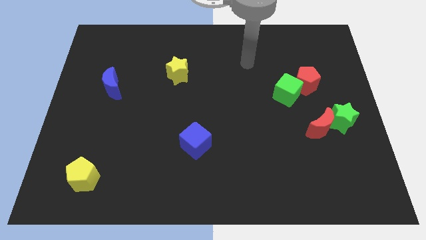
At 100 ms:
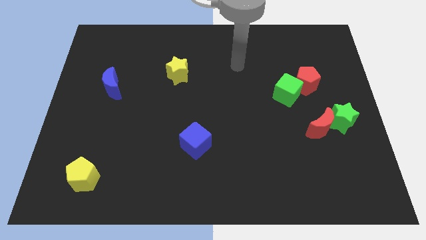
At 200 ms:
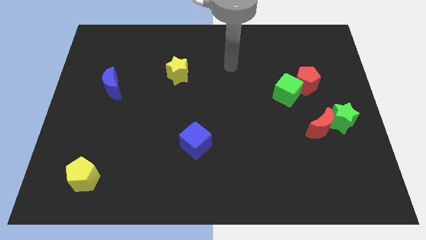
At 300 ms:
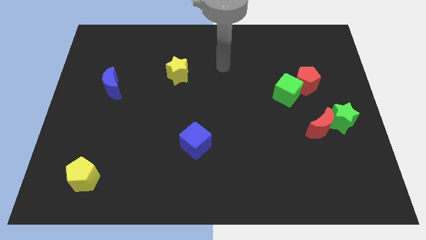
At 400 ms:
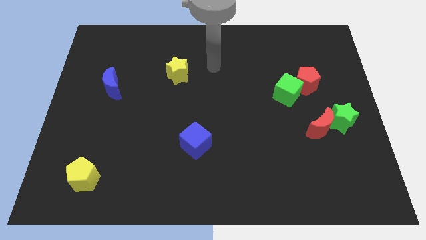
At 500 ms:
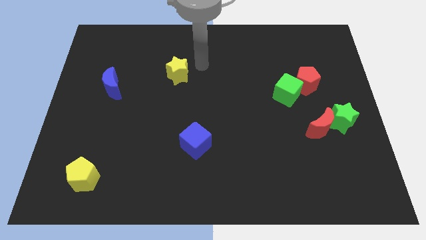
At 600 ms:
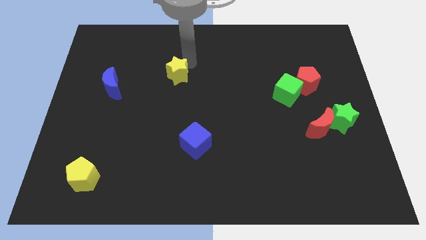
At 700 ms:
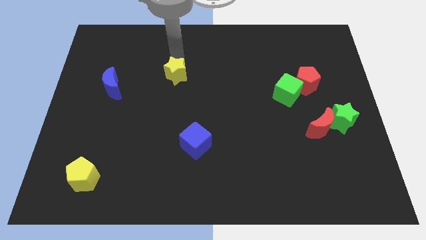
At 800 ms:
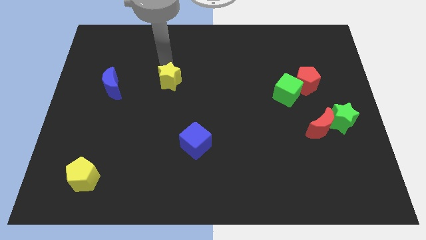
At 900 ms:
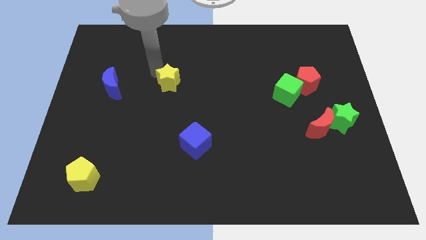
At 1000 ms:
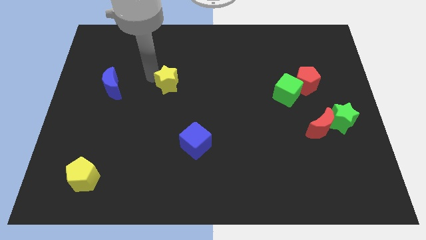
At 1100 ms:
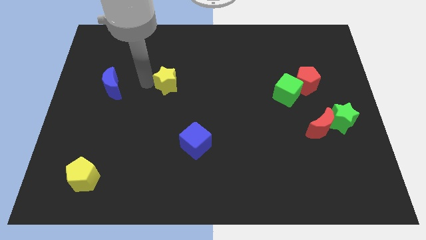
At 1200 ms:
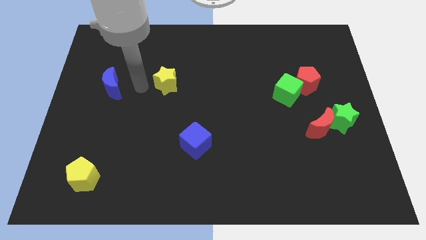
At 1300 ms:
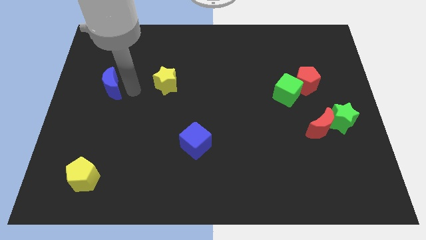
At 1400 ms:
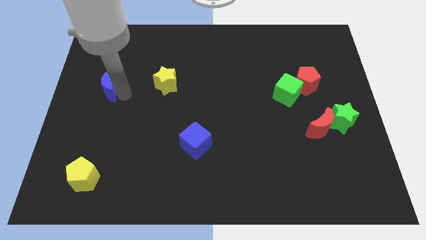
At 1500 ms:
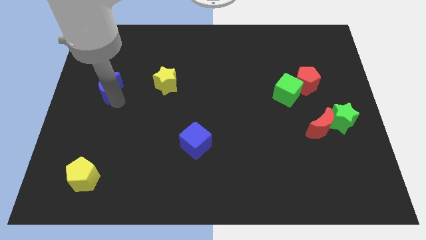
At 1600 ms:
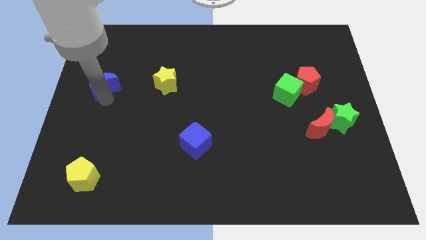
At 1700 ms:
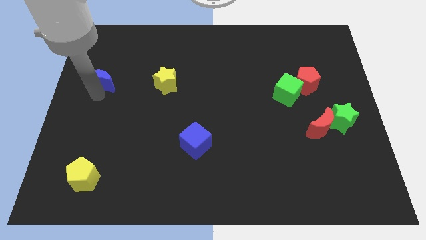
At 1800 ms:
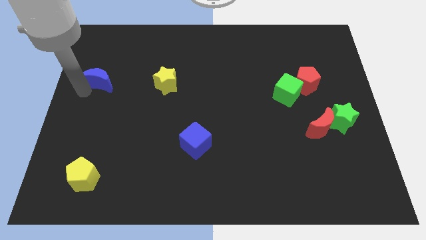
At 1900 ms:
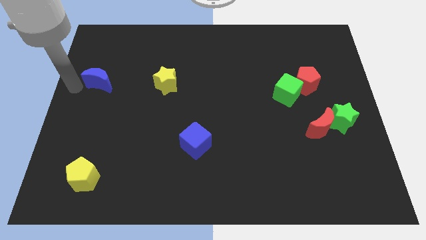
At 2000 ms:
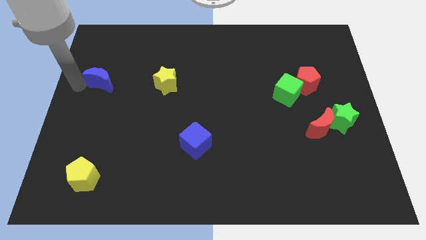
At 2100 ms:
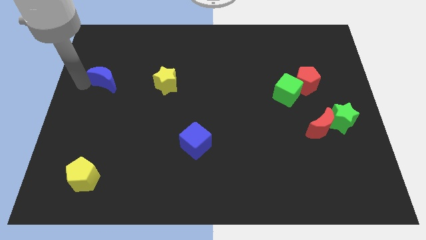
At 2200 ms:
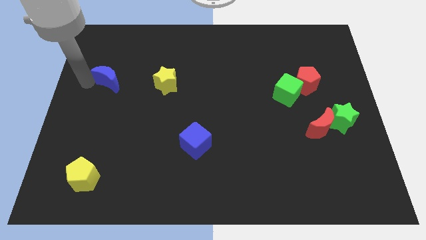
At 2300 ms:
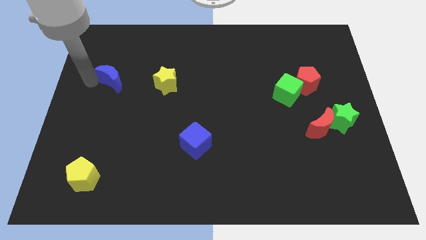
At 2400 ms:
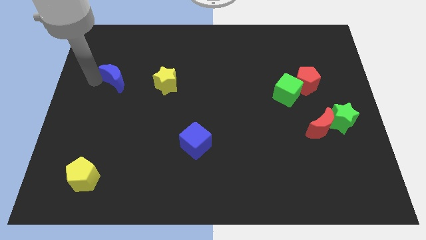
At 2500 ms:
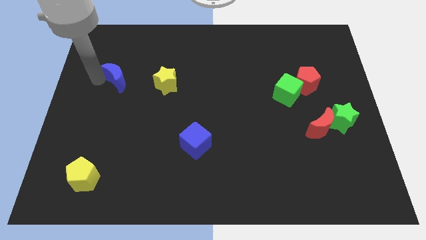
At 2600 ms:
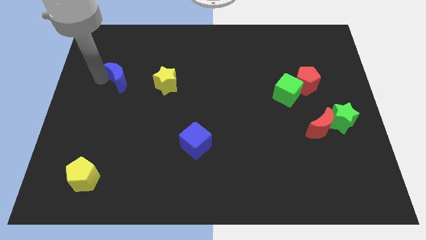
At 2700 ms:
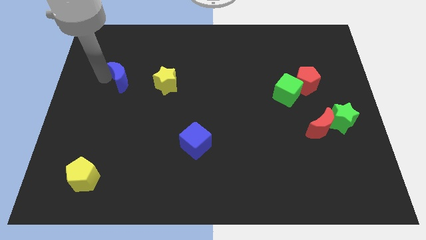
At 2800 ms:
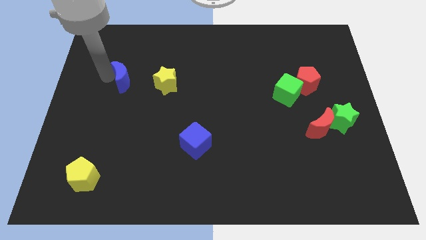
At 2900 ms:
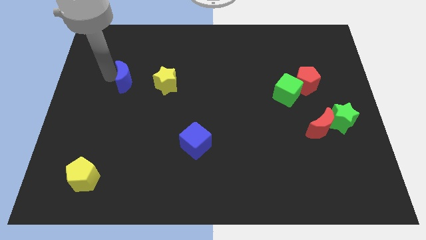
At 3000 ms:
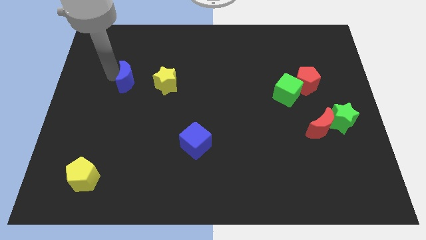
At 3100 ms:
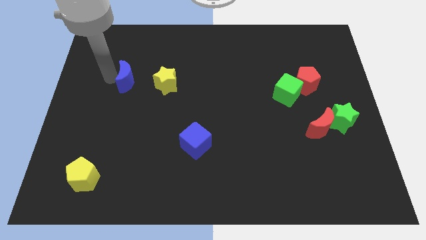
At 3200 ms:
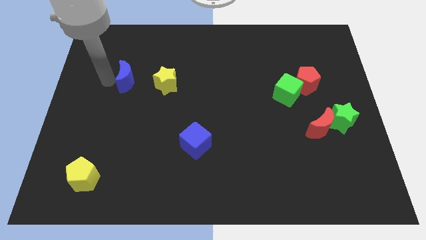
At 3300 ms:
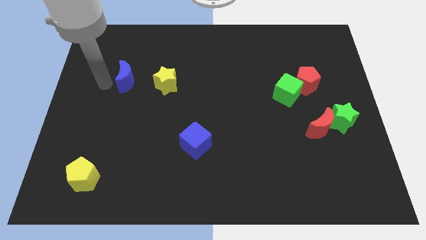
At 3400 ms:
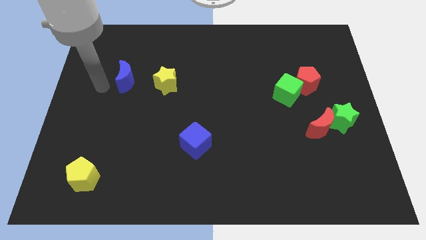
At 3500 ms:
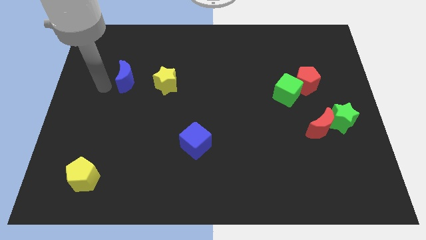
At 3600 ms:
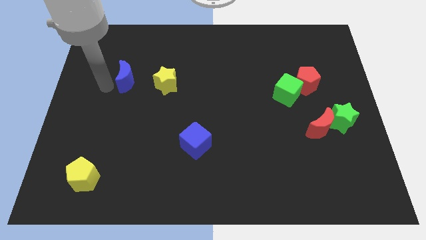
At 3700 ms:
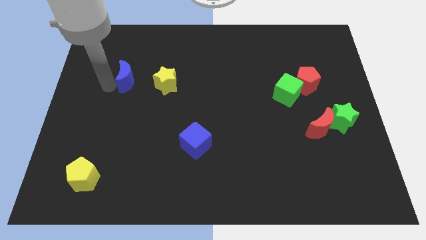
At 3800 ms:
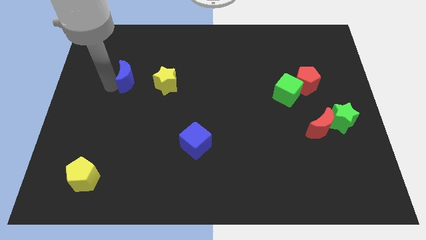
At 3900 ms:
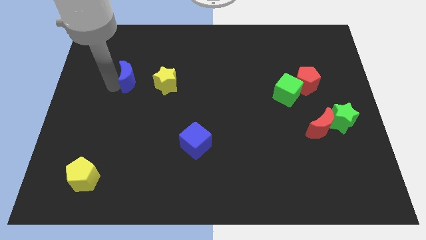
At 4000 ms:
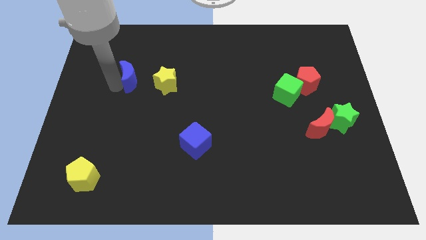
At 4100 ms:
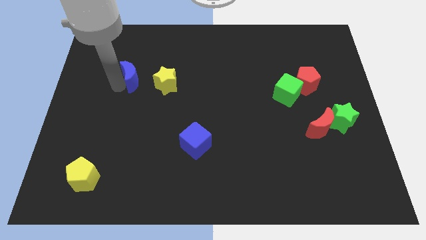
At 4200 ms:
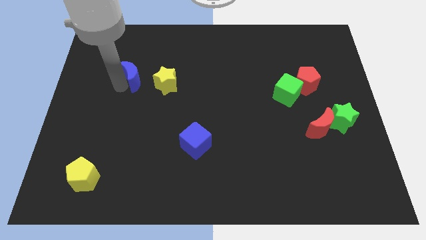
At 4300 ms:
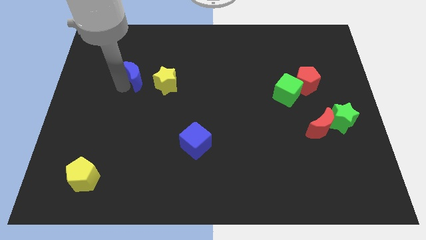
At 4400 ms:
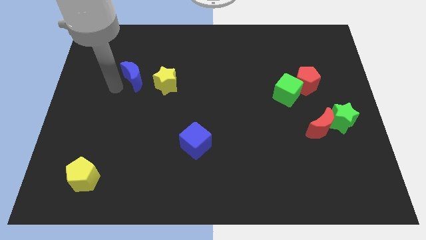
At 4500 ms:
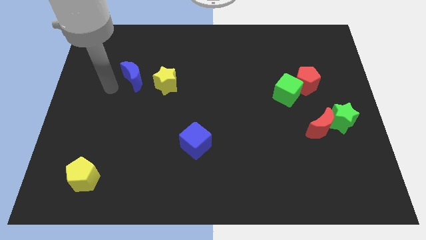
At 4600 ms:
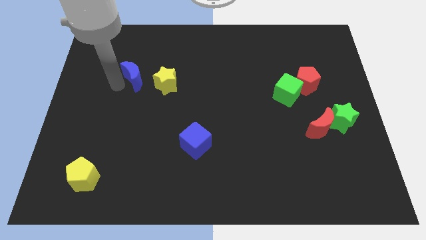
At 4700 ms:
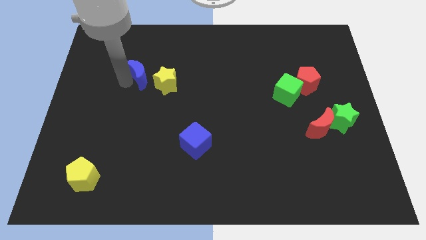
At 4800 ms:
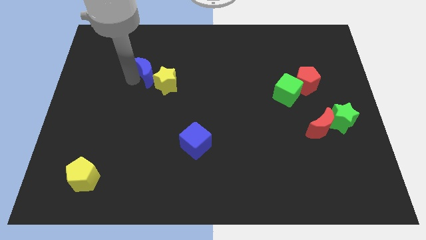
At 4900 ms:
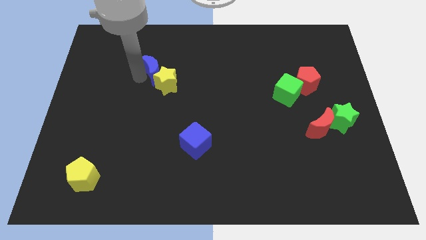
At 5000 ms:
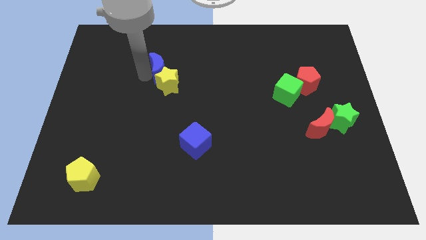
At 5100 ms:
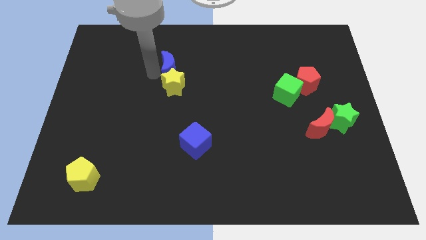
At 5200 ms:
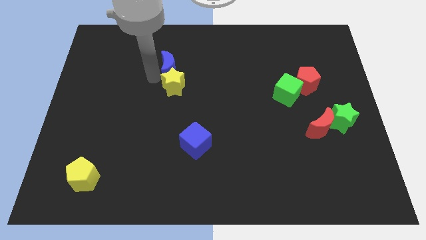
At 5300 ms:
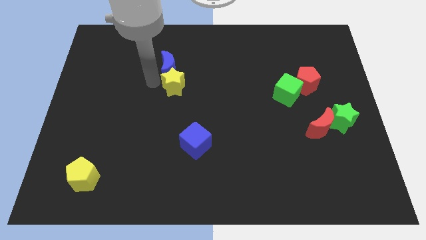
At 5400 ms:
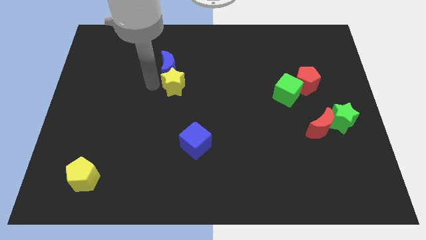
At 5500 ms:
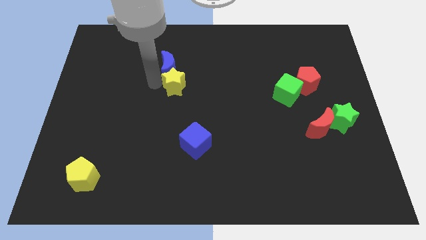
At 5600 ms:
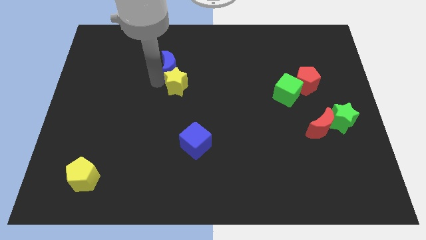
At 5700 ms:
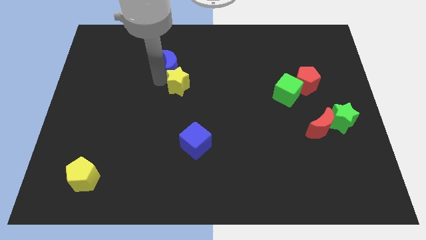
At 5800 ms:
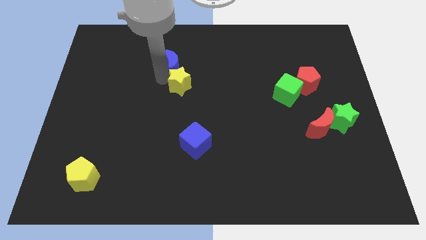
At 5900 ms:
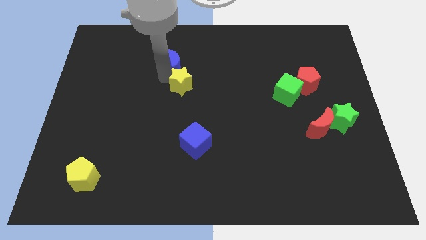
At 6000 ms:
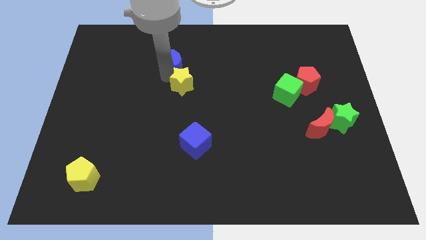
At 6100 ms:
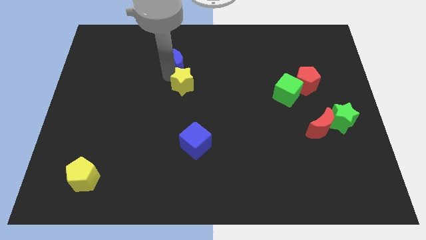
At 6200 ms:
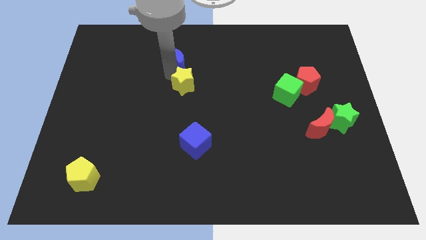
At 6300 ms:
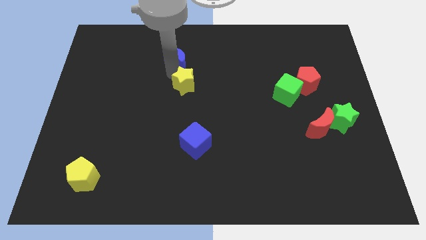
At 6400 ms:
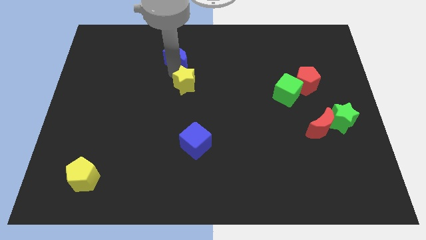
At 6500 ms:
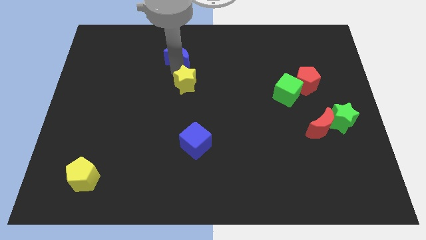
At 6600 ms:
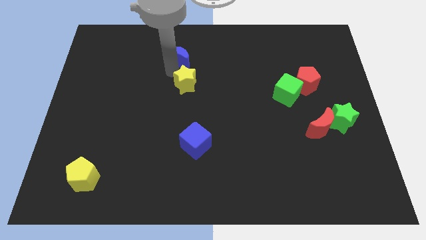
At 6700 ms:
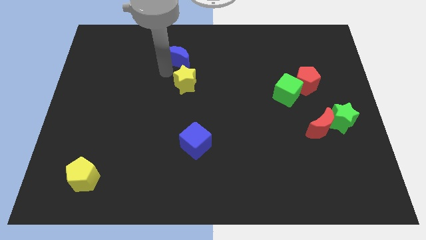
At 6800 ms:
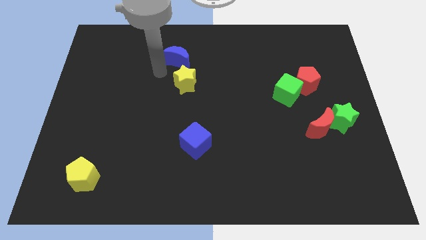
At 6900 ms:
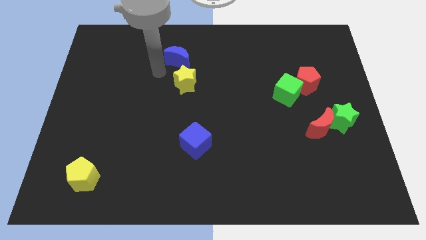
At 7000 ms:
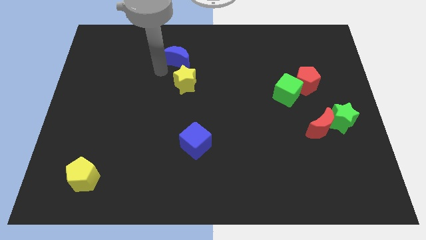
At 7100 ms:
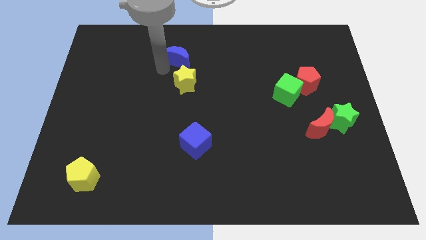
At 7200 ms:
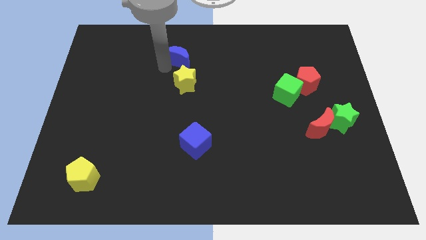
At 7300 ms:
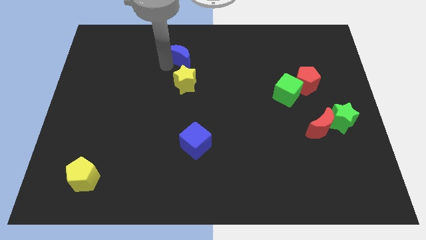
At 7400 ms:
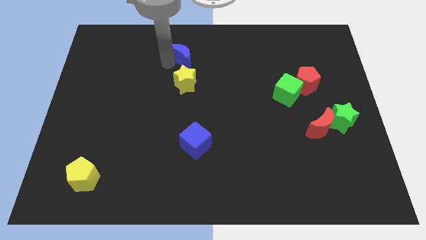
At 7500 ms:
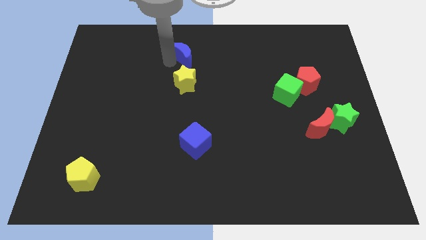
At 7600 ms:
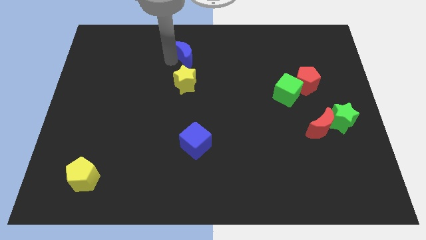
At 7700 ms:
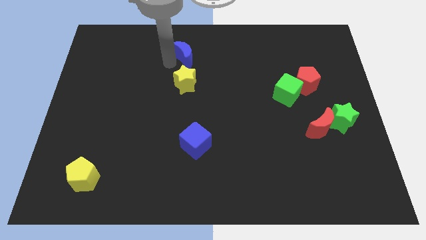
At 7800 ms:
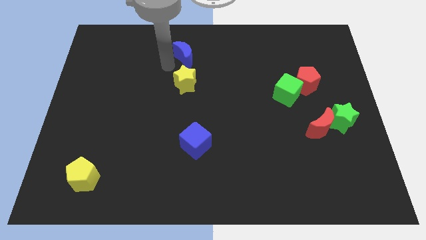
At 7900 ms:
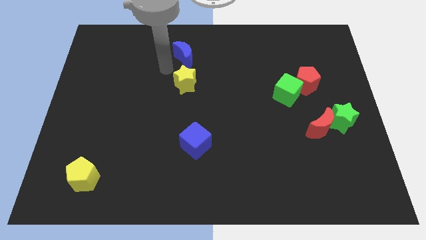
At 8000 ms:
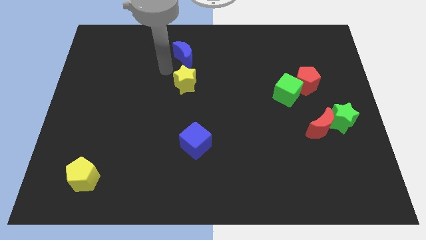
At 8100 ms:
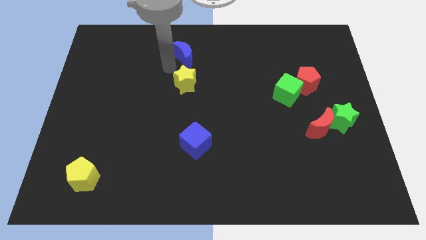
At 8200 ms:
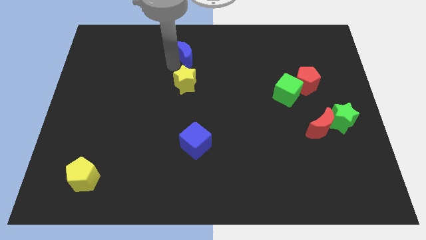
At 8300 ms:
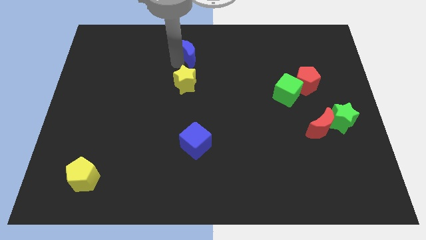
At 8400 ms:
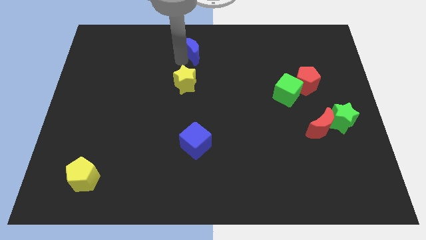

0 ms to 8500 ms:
put the blue moon to the top
